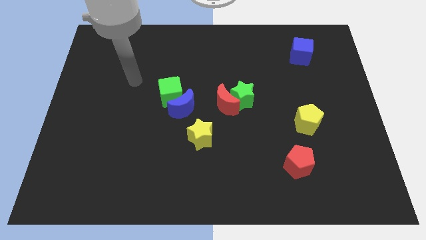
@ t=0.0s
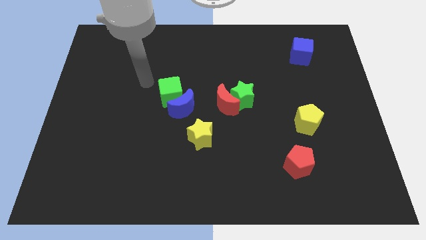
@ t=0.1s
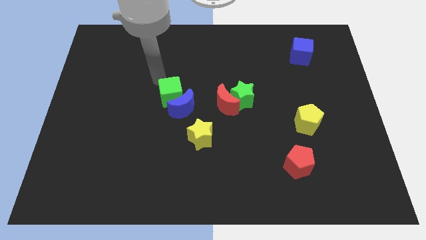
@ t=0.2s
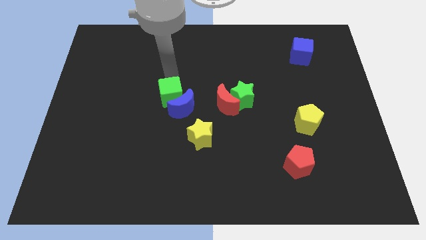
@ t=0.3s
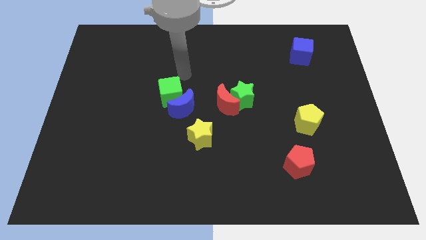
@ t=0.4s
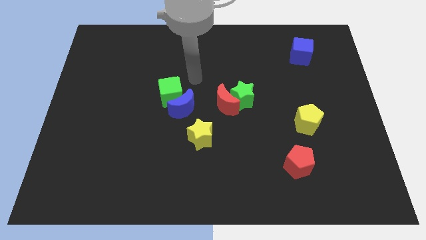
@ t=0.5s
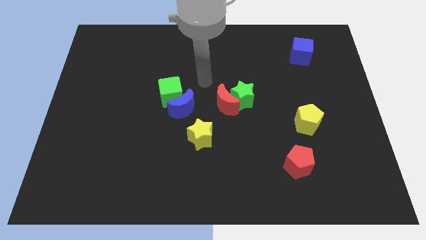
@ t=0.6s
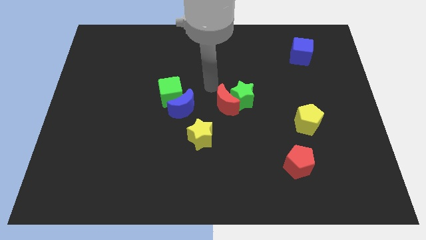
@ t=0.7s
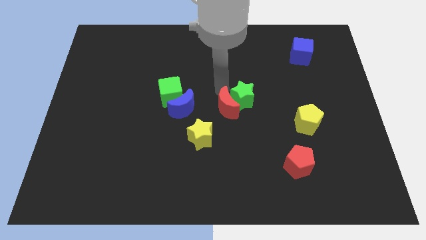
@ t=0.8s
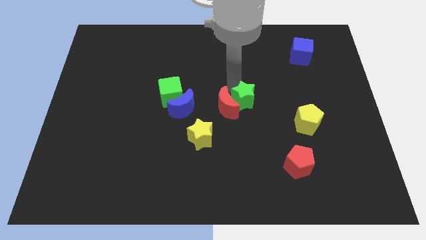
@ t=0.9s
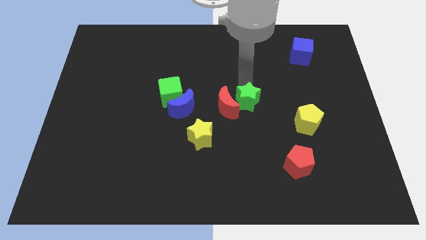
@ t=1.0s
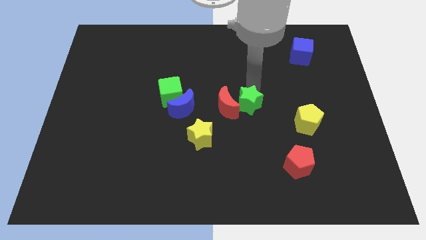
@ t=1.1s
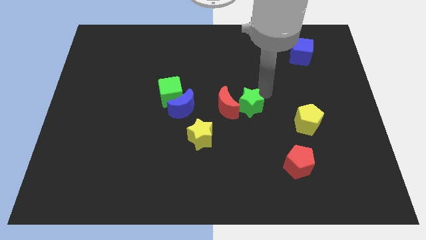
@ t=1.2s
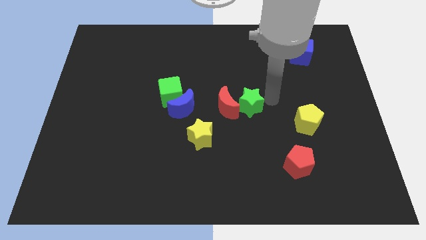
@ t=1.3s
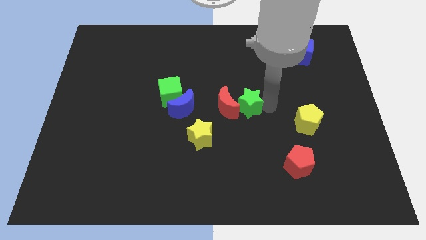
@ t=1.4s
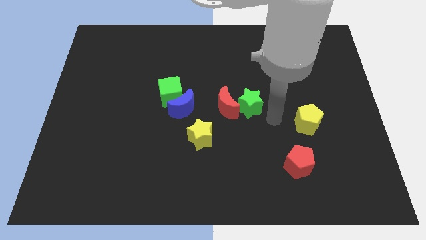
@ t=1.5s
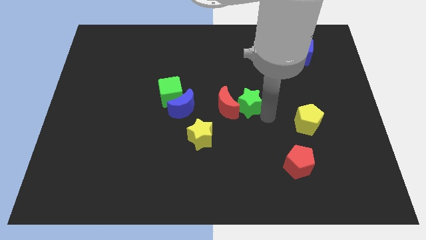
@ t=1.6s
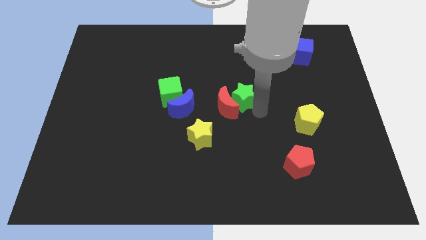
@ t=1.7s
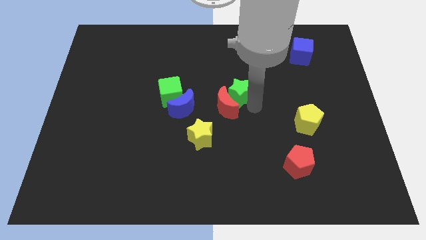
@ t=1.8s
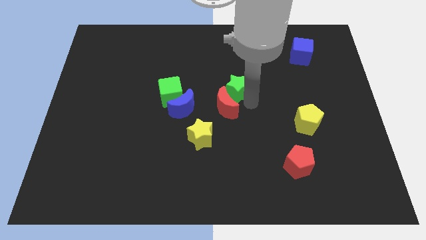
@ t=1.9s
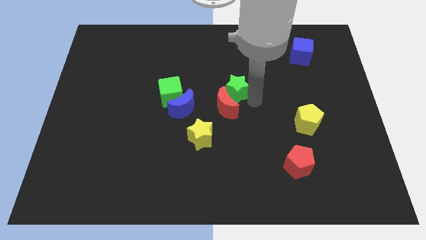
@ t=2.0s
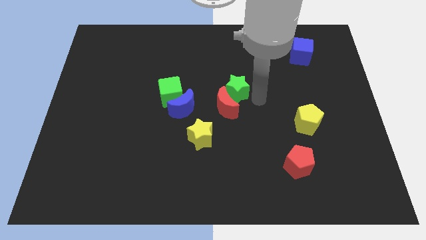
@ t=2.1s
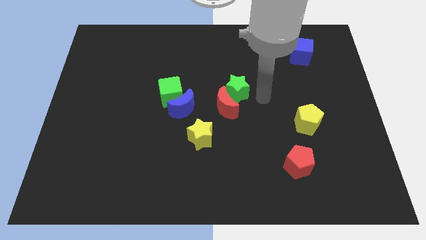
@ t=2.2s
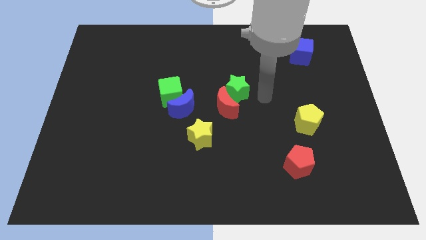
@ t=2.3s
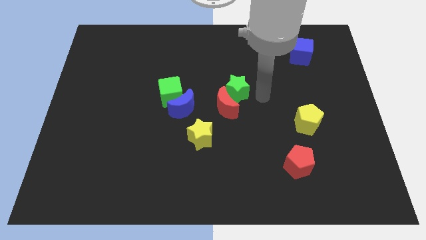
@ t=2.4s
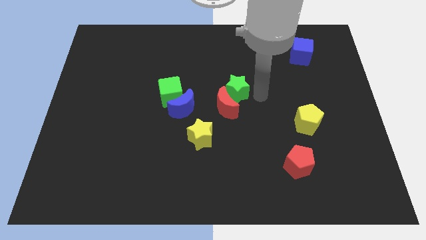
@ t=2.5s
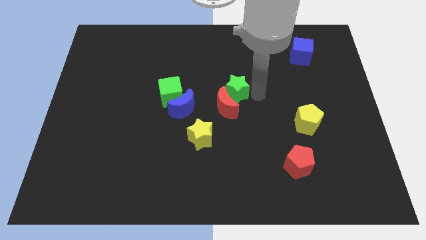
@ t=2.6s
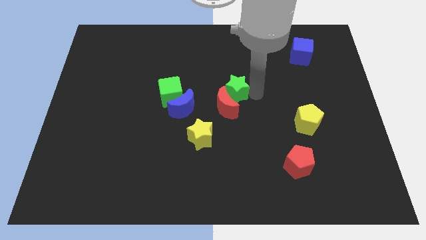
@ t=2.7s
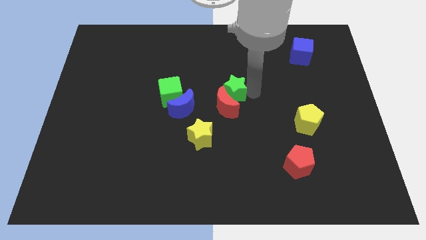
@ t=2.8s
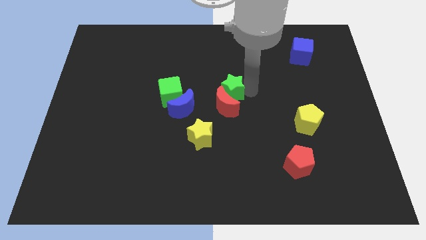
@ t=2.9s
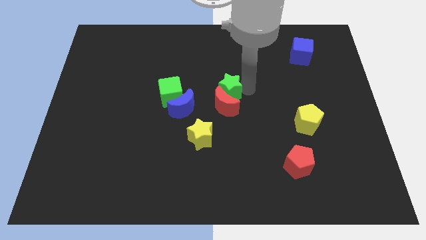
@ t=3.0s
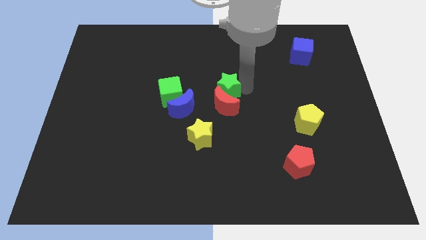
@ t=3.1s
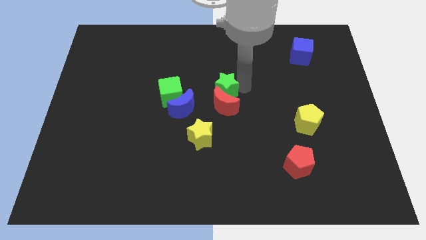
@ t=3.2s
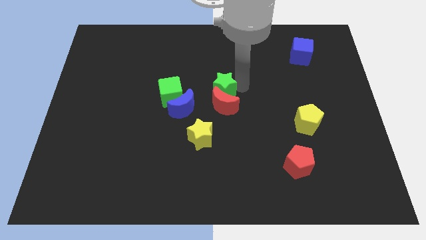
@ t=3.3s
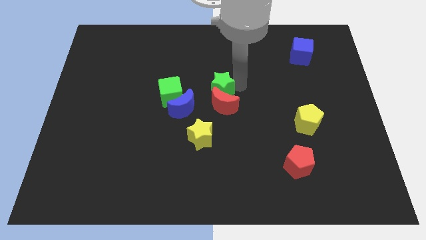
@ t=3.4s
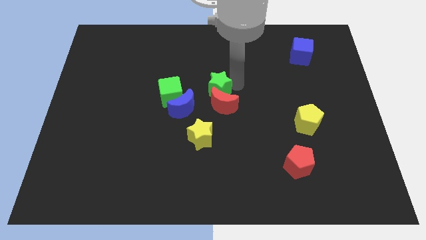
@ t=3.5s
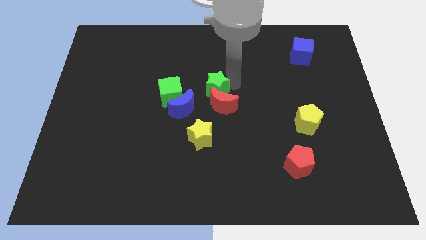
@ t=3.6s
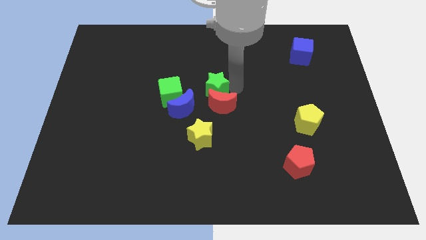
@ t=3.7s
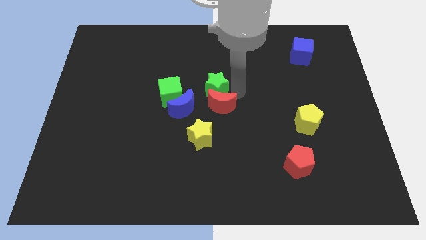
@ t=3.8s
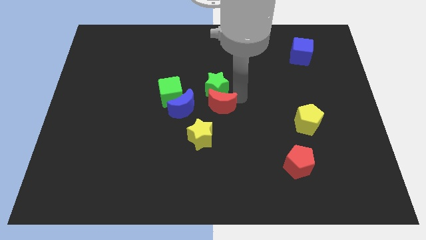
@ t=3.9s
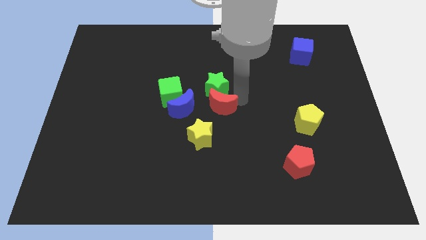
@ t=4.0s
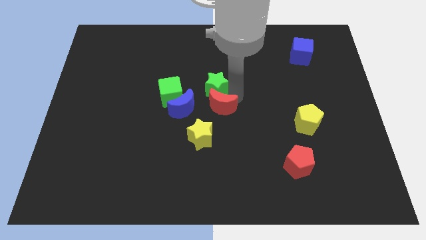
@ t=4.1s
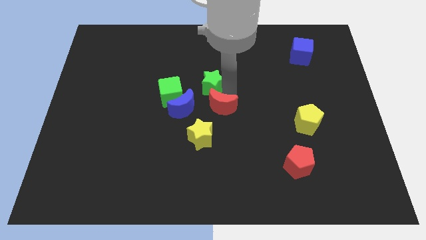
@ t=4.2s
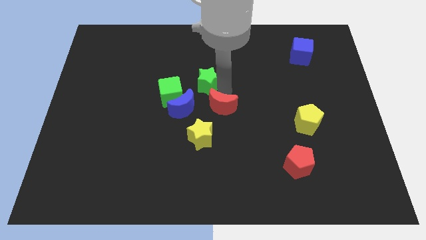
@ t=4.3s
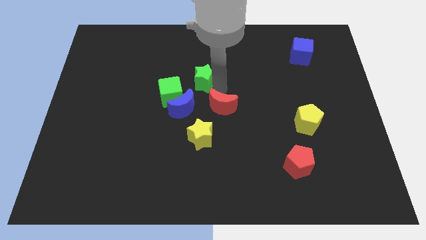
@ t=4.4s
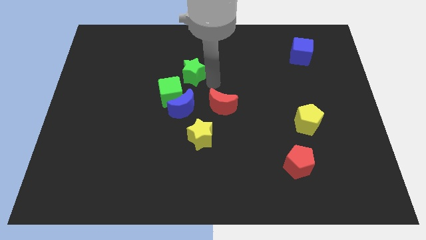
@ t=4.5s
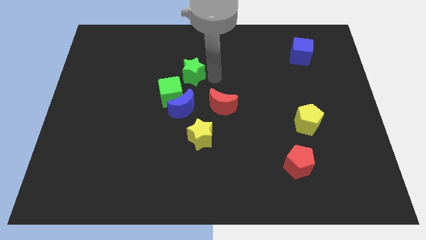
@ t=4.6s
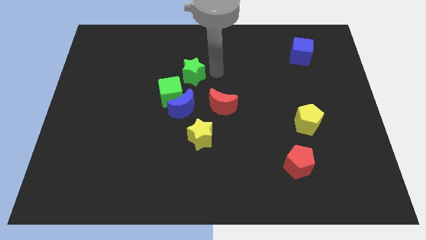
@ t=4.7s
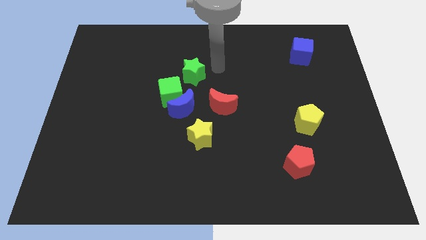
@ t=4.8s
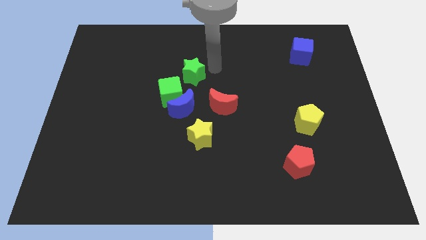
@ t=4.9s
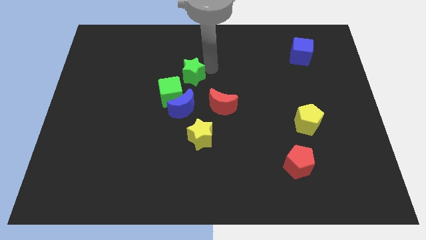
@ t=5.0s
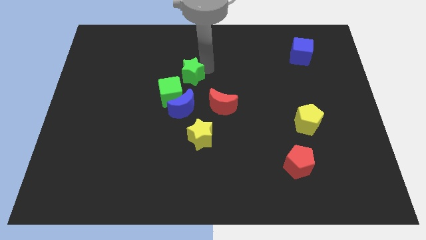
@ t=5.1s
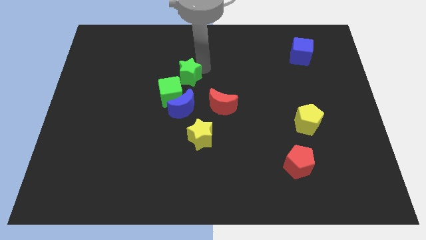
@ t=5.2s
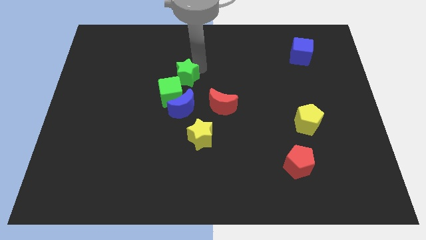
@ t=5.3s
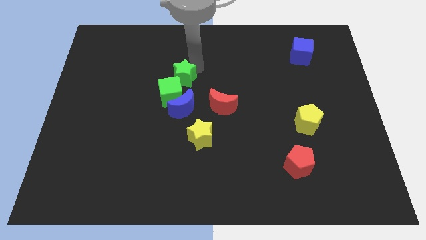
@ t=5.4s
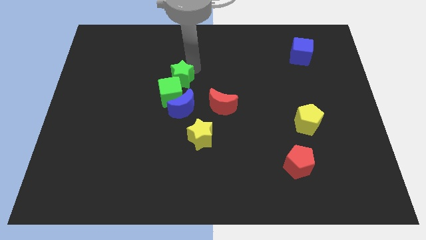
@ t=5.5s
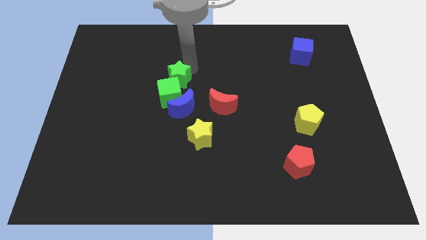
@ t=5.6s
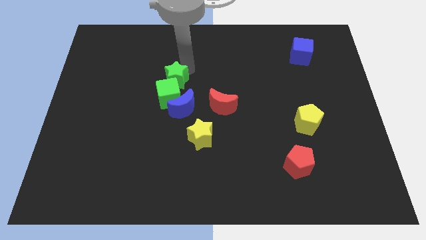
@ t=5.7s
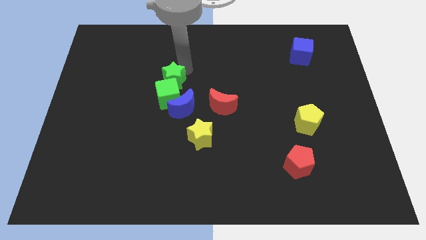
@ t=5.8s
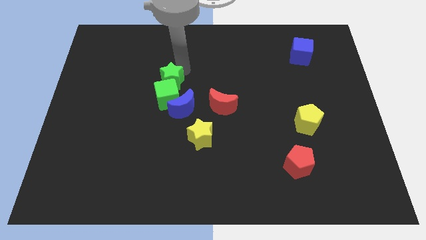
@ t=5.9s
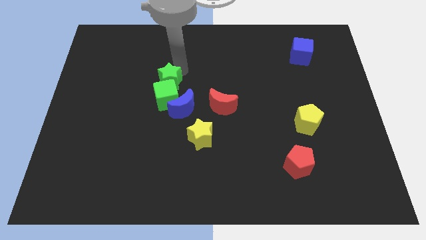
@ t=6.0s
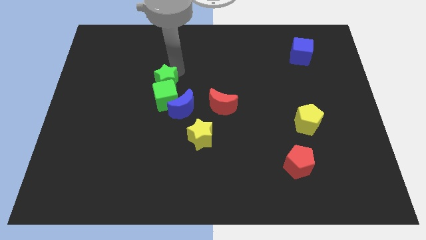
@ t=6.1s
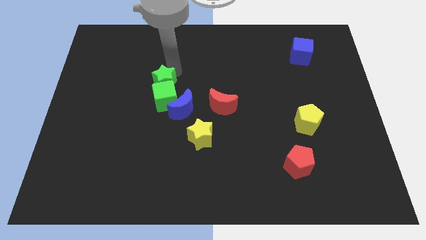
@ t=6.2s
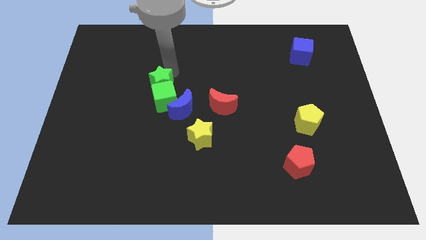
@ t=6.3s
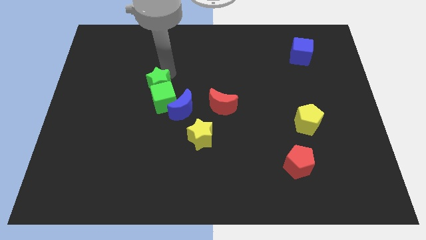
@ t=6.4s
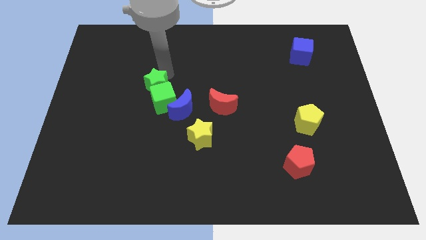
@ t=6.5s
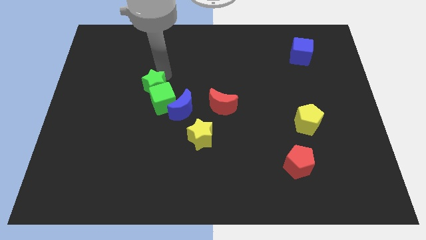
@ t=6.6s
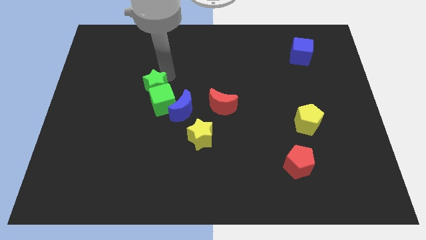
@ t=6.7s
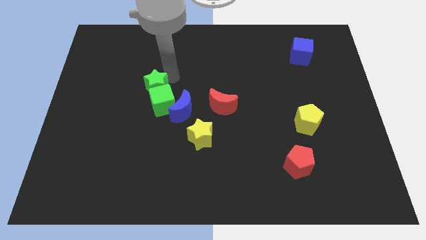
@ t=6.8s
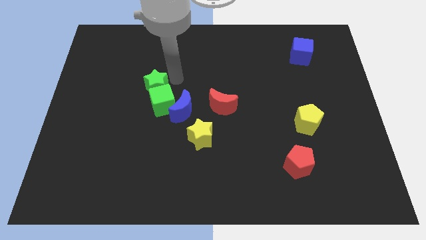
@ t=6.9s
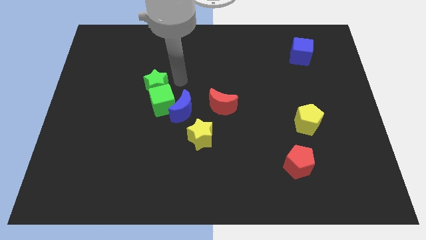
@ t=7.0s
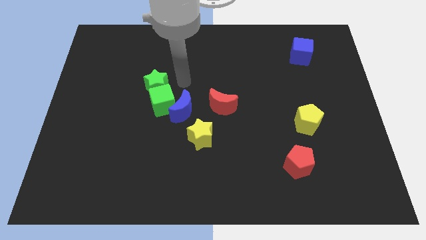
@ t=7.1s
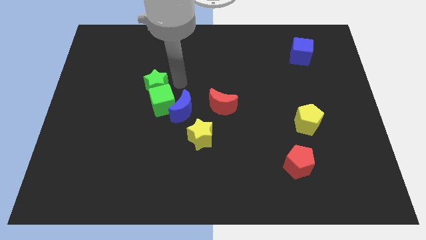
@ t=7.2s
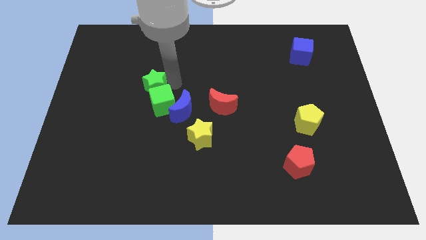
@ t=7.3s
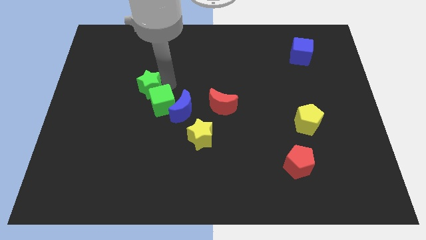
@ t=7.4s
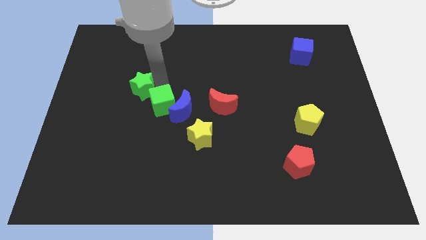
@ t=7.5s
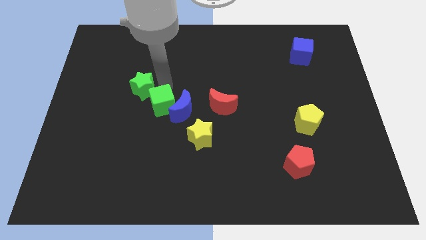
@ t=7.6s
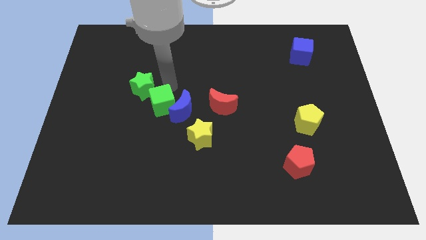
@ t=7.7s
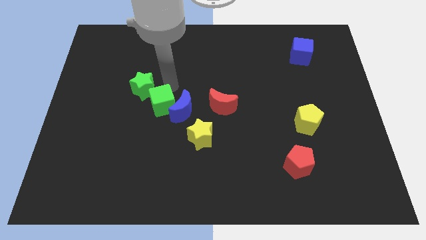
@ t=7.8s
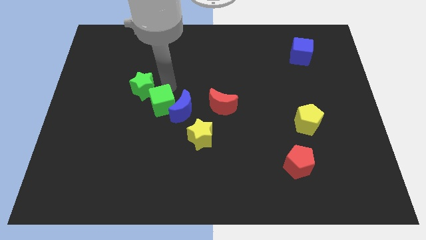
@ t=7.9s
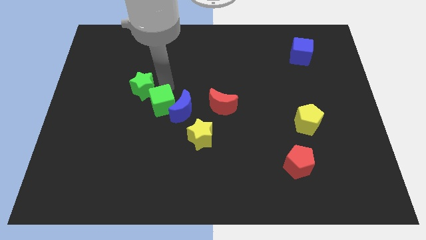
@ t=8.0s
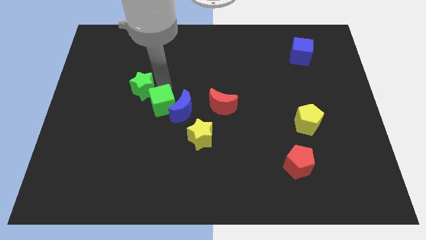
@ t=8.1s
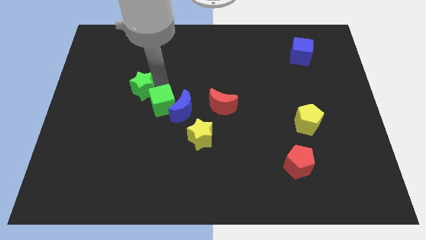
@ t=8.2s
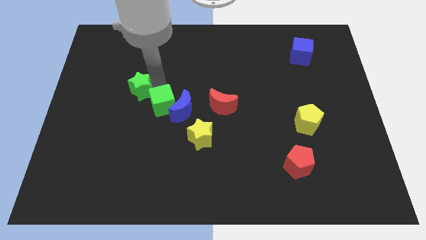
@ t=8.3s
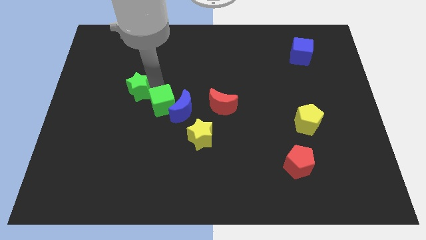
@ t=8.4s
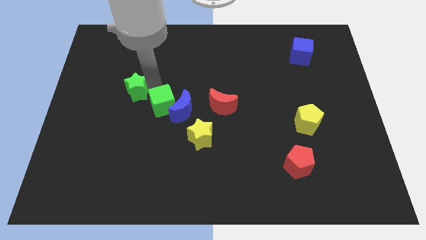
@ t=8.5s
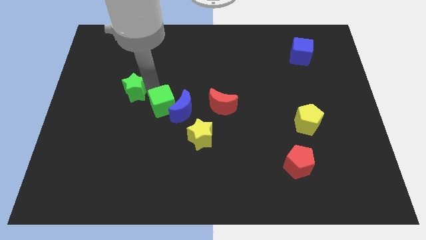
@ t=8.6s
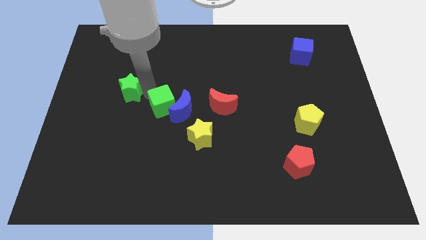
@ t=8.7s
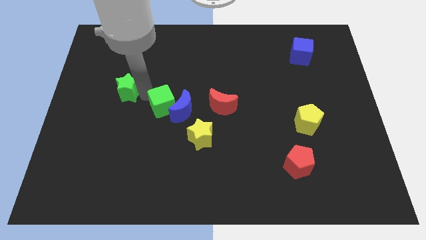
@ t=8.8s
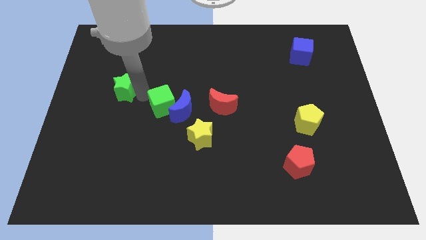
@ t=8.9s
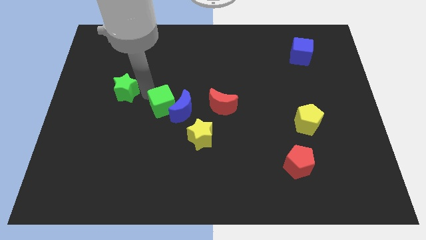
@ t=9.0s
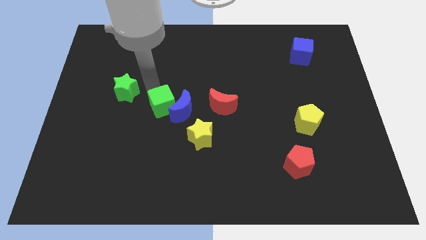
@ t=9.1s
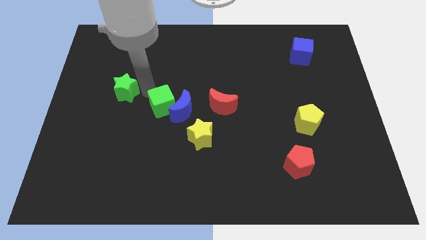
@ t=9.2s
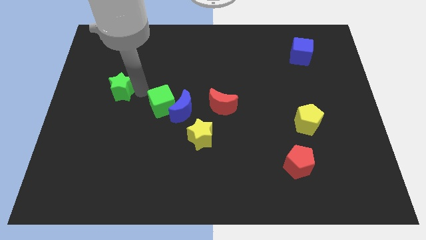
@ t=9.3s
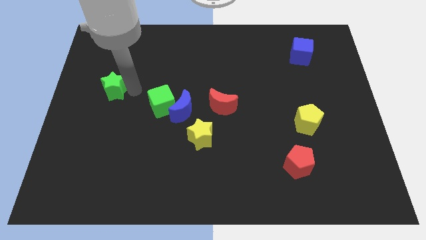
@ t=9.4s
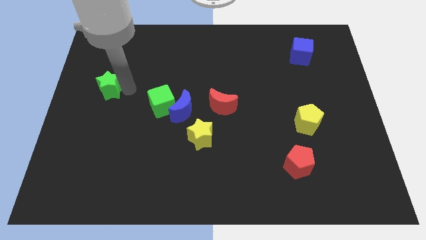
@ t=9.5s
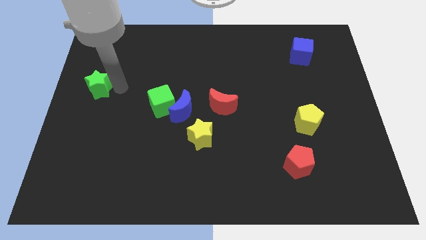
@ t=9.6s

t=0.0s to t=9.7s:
move the green star to the left side
